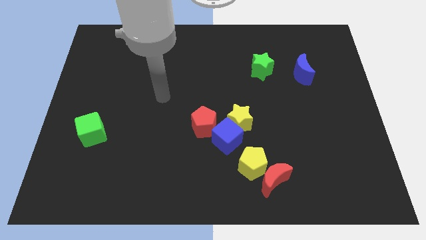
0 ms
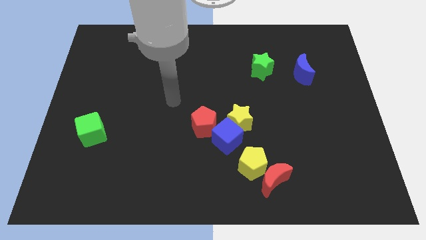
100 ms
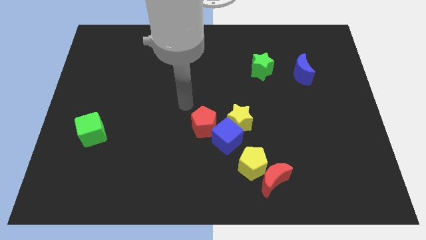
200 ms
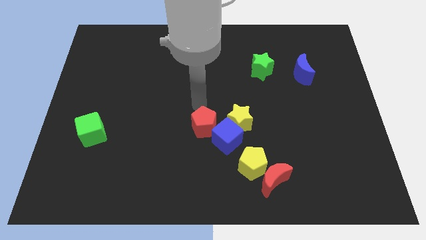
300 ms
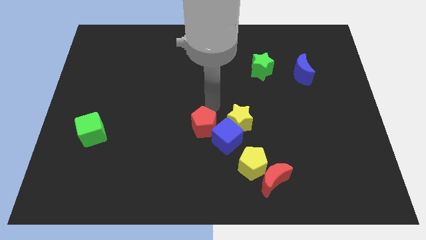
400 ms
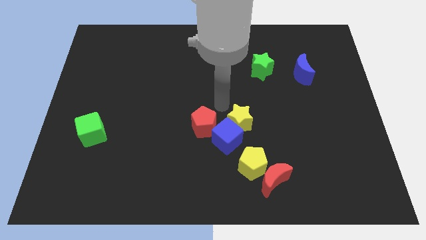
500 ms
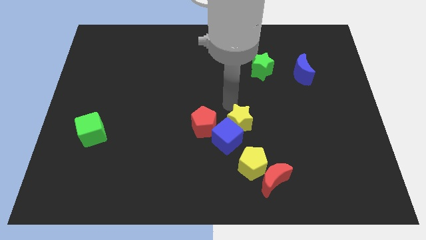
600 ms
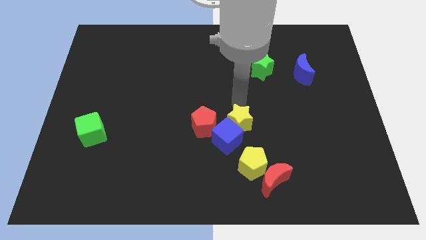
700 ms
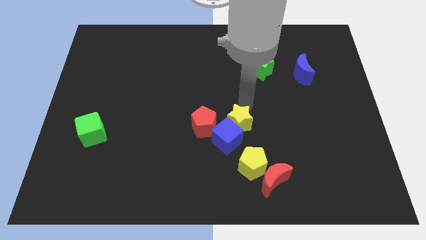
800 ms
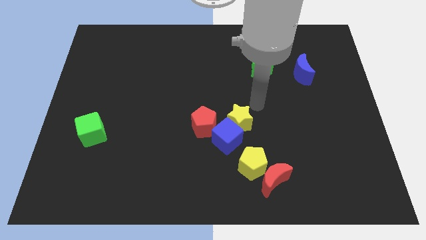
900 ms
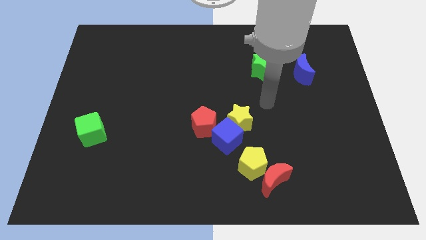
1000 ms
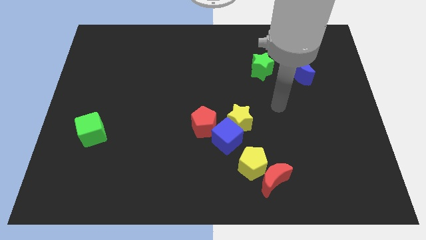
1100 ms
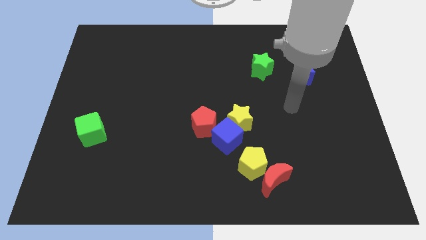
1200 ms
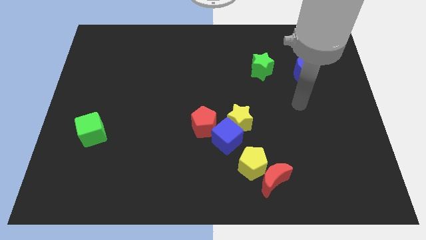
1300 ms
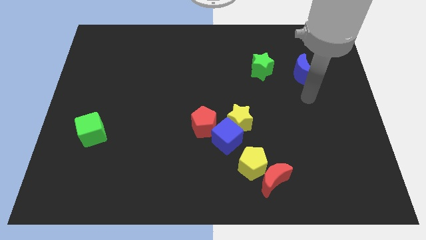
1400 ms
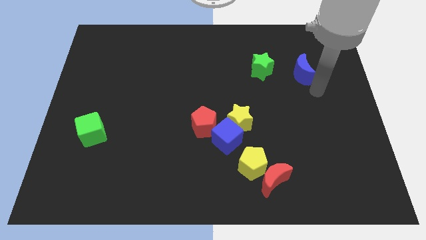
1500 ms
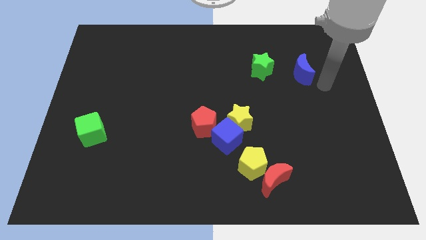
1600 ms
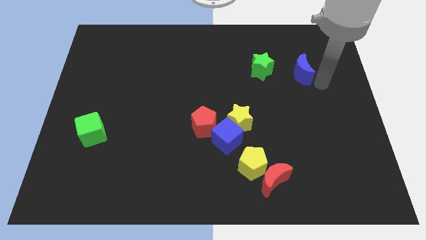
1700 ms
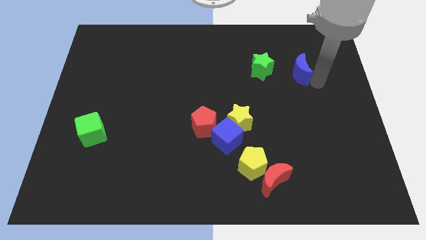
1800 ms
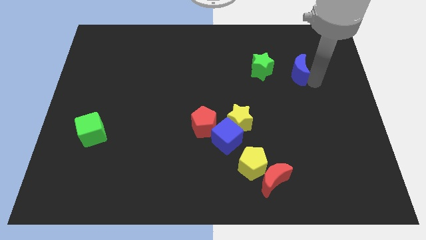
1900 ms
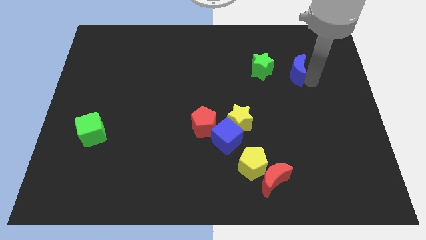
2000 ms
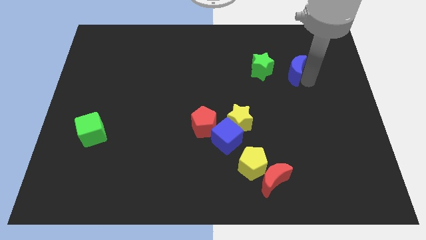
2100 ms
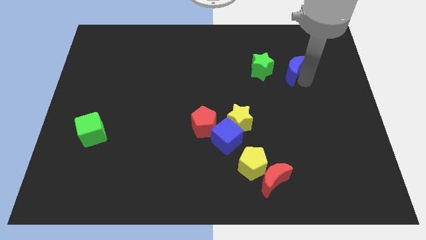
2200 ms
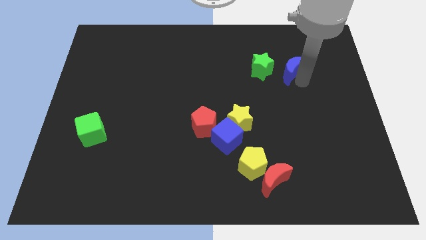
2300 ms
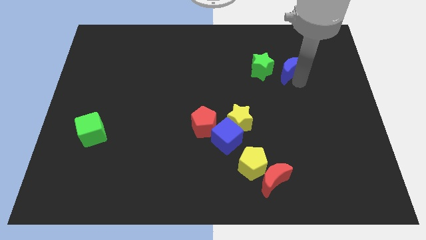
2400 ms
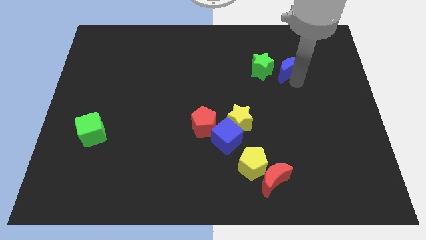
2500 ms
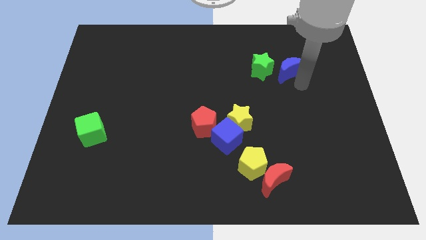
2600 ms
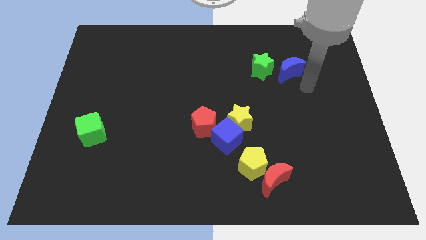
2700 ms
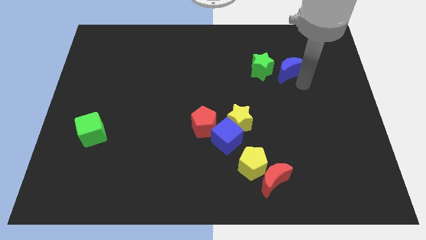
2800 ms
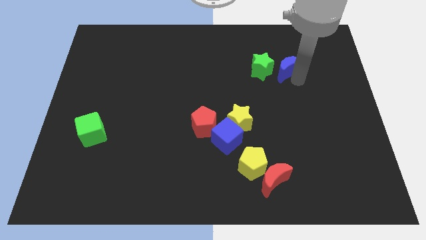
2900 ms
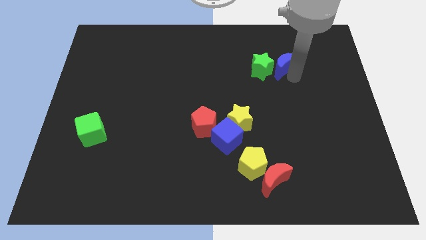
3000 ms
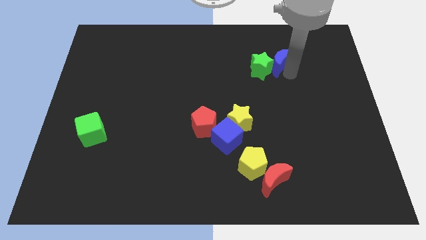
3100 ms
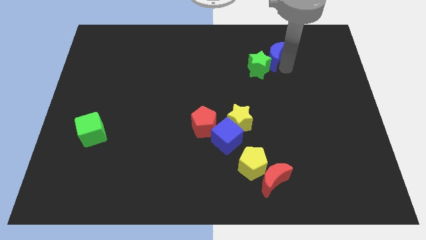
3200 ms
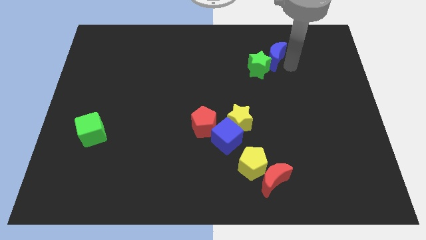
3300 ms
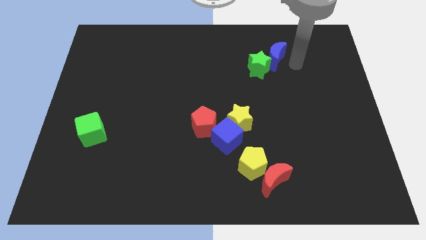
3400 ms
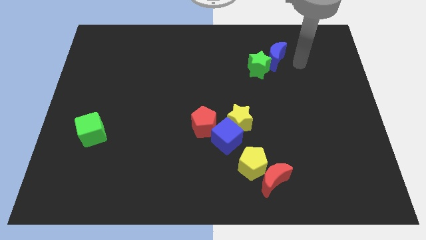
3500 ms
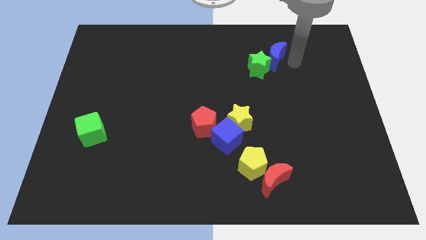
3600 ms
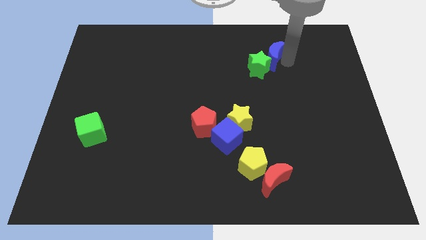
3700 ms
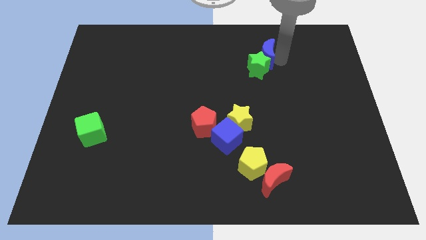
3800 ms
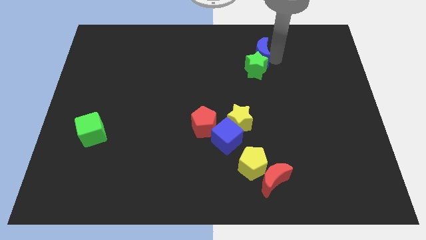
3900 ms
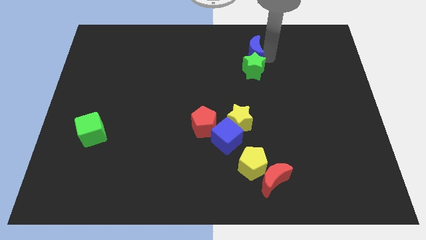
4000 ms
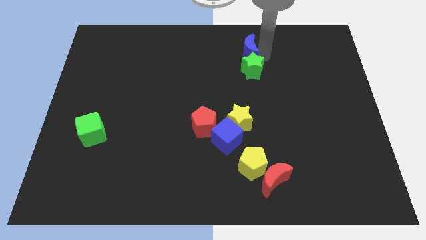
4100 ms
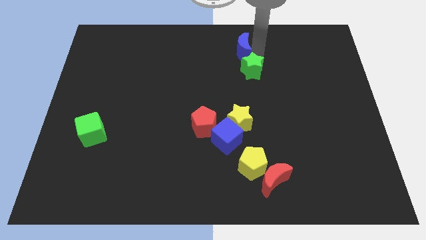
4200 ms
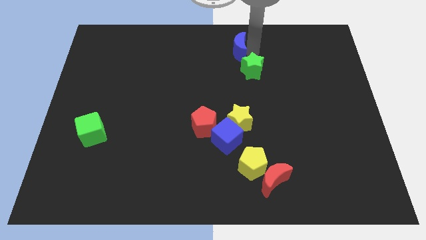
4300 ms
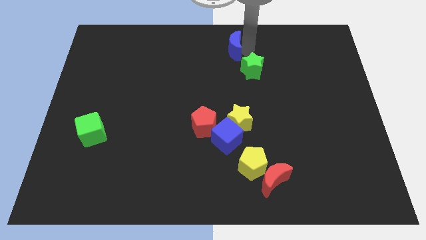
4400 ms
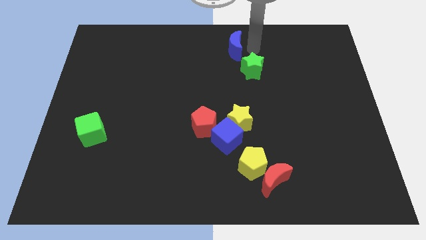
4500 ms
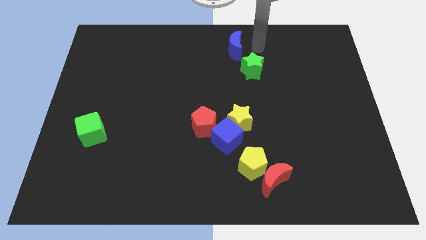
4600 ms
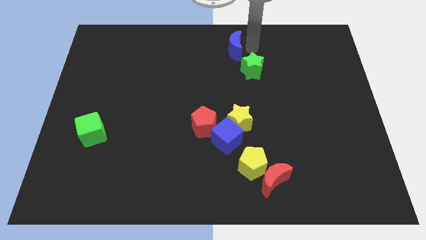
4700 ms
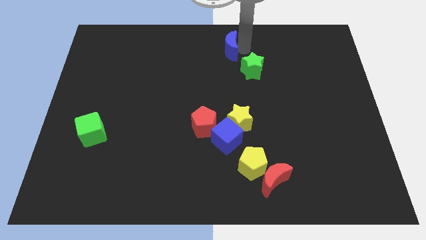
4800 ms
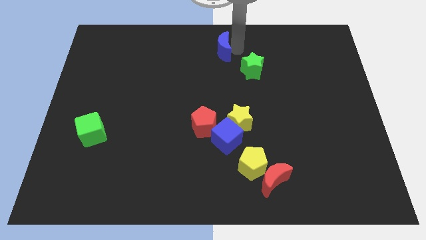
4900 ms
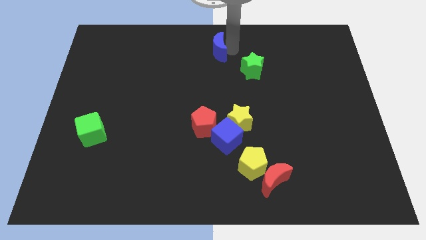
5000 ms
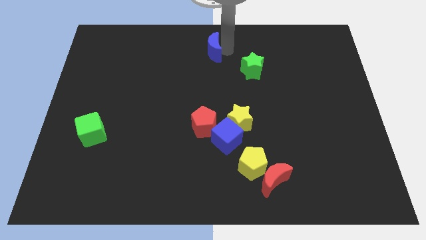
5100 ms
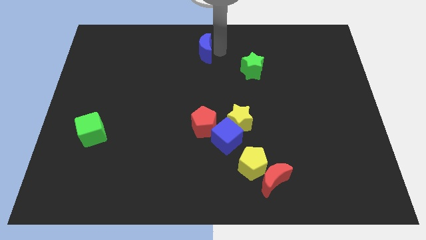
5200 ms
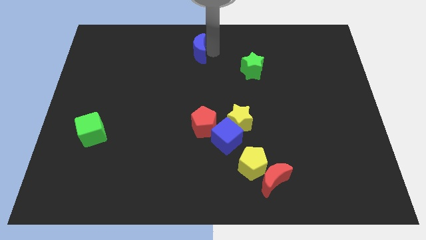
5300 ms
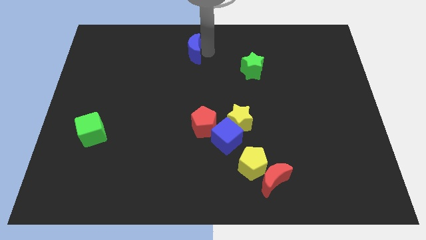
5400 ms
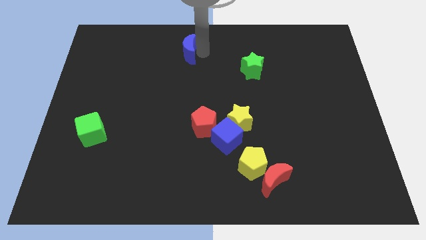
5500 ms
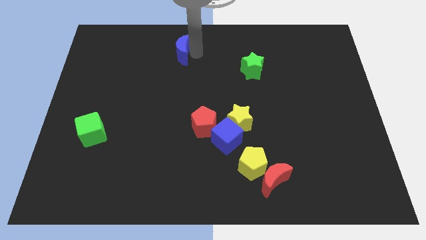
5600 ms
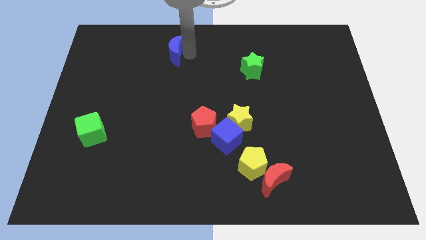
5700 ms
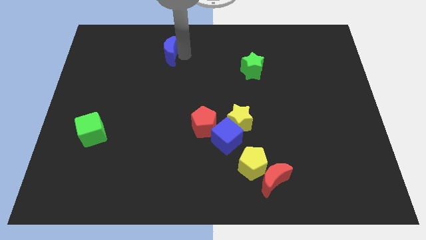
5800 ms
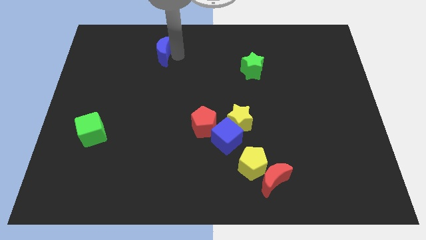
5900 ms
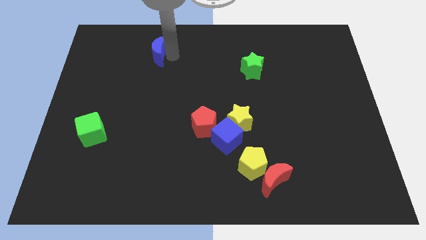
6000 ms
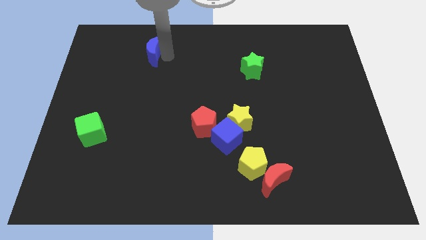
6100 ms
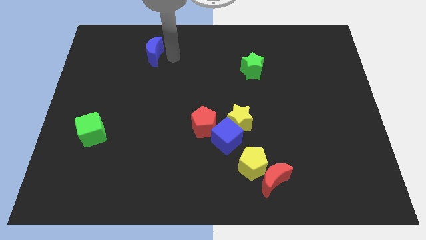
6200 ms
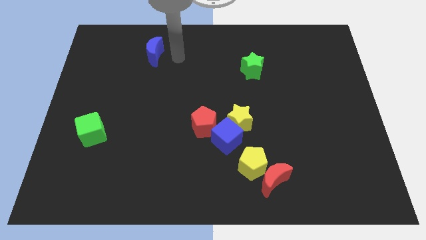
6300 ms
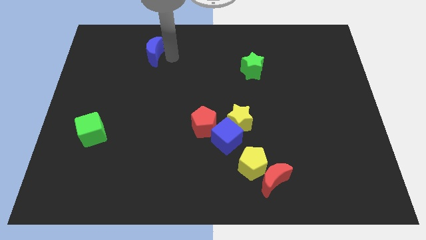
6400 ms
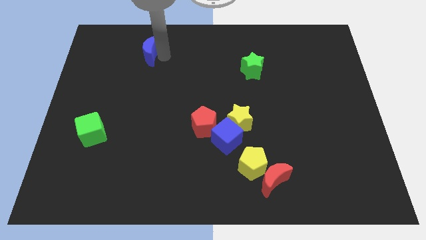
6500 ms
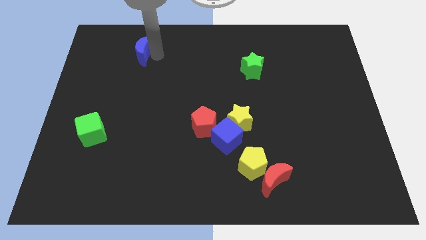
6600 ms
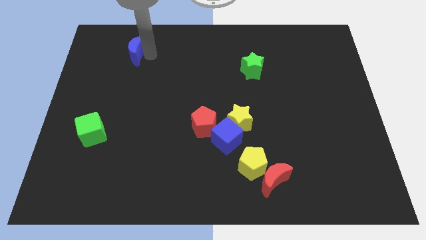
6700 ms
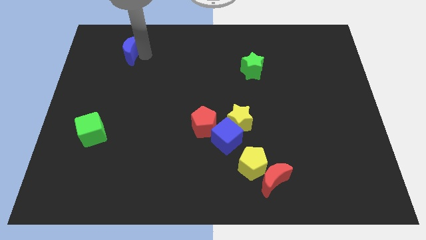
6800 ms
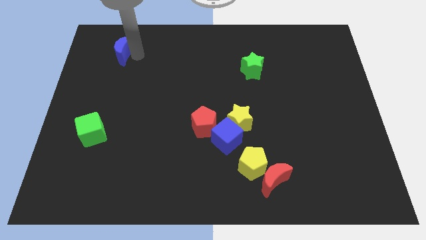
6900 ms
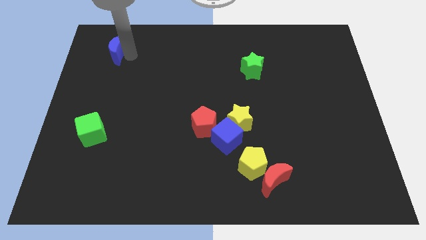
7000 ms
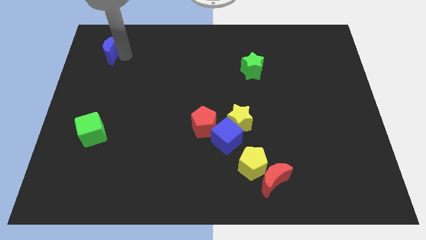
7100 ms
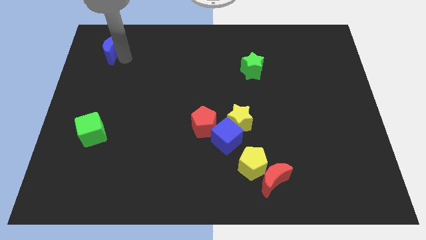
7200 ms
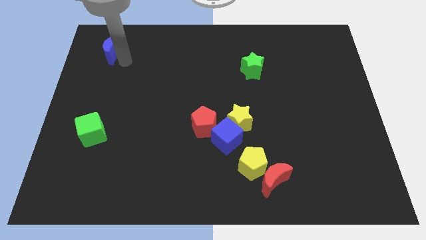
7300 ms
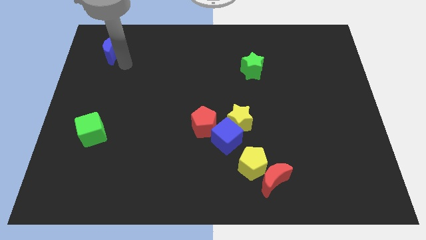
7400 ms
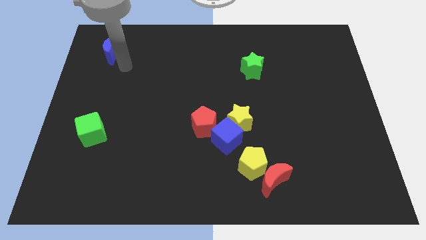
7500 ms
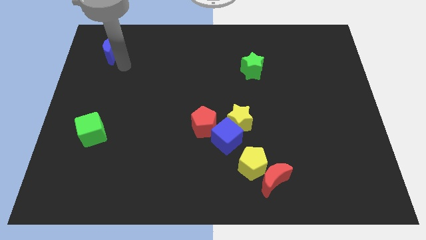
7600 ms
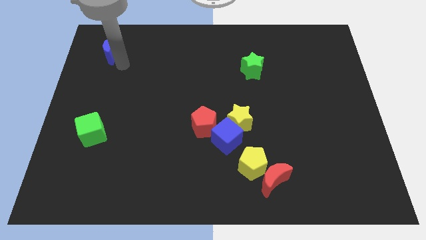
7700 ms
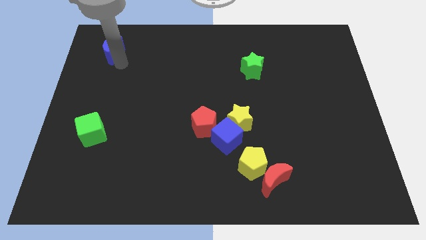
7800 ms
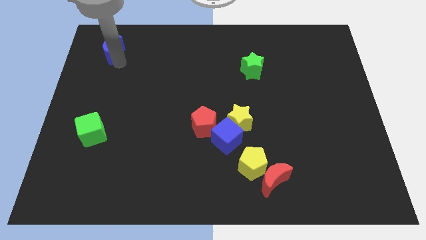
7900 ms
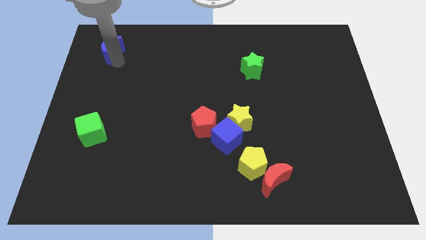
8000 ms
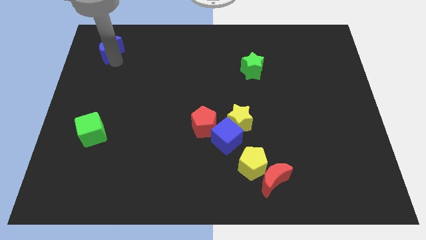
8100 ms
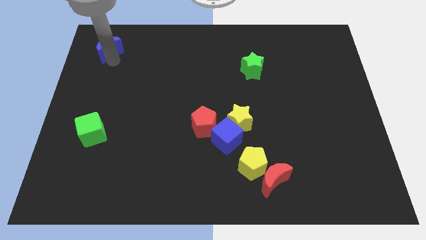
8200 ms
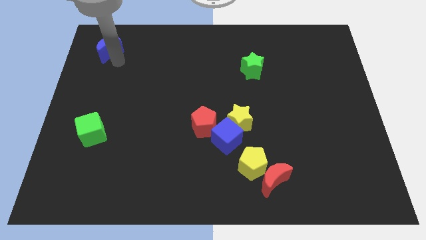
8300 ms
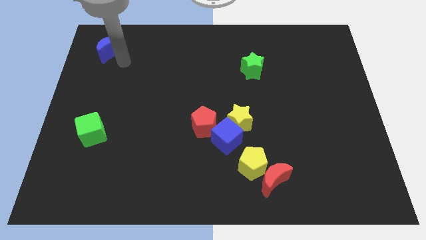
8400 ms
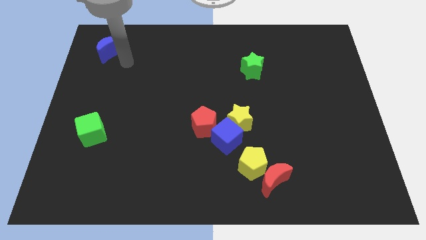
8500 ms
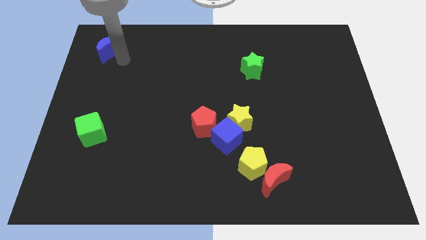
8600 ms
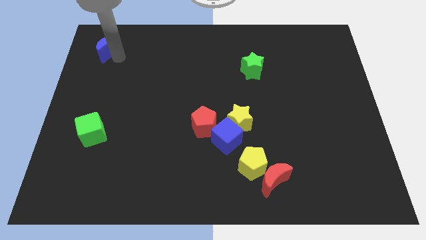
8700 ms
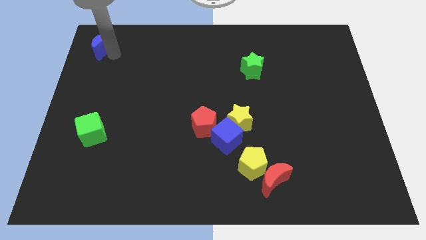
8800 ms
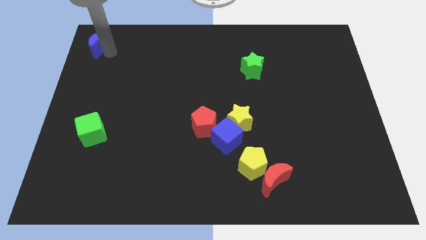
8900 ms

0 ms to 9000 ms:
move the blue moon to the top left corner
